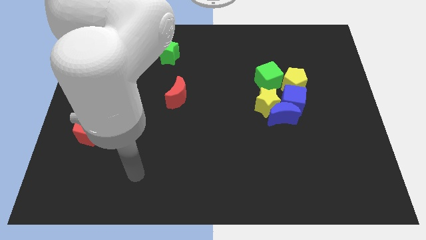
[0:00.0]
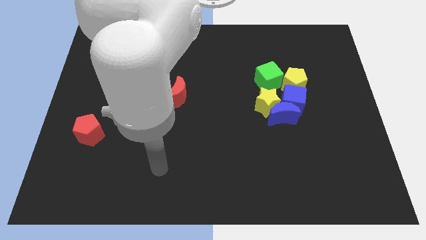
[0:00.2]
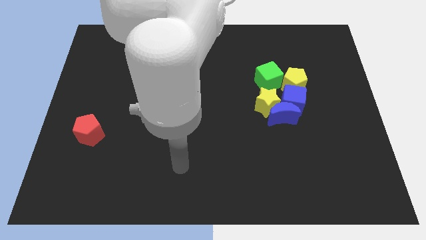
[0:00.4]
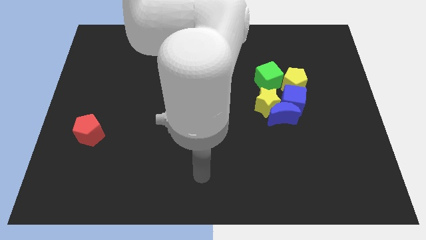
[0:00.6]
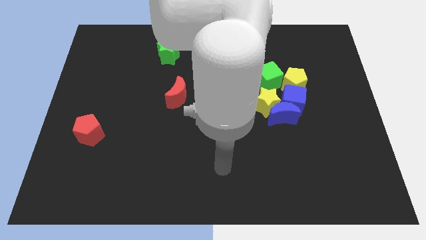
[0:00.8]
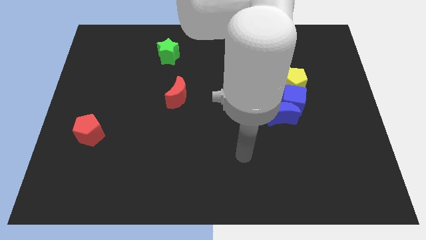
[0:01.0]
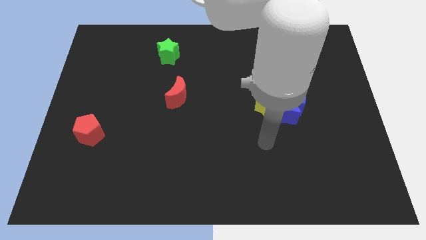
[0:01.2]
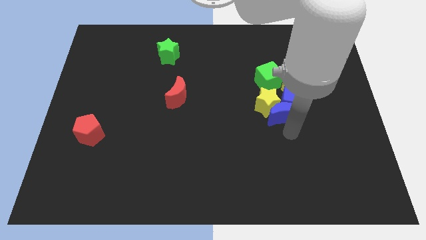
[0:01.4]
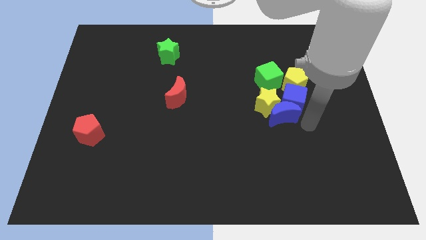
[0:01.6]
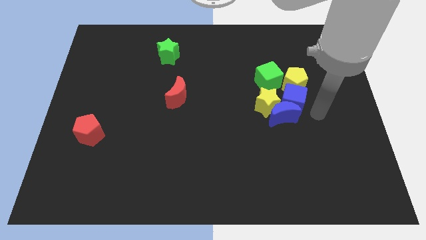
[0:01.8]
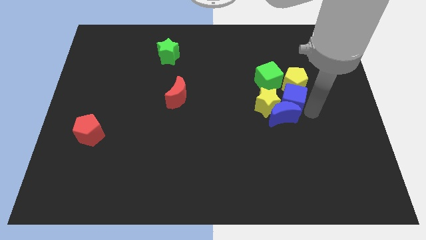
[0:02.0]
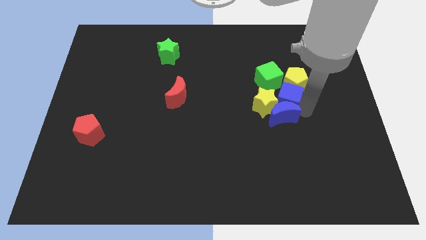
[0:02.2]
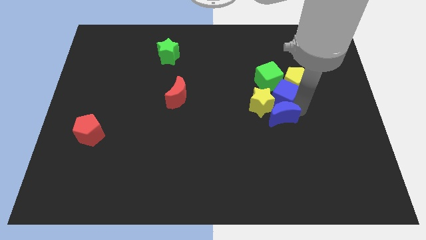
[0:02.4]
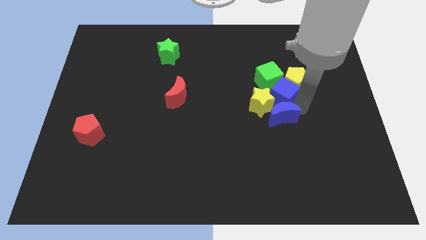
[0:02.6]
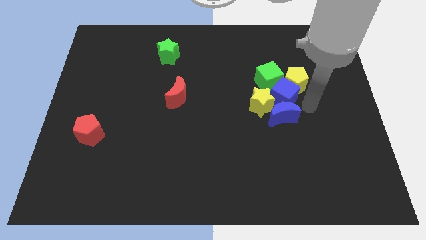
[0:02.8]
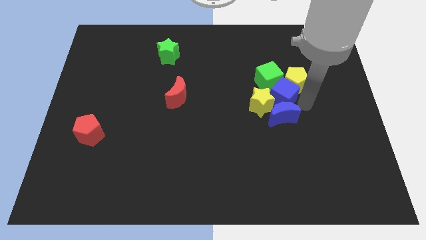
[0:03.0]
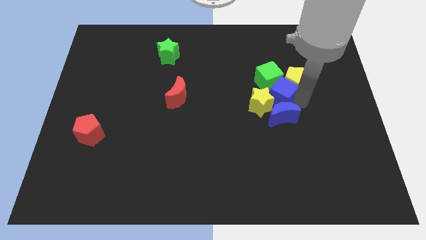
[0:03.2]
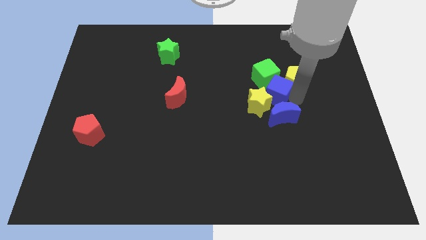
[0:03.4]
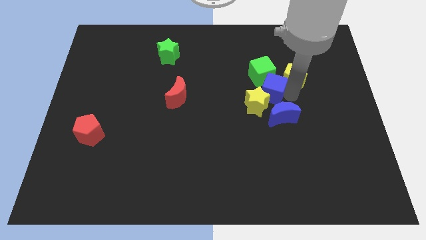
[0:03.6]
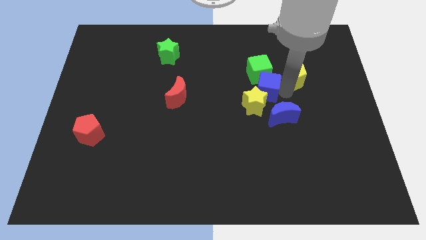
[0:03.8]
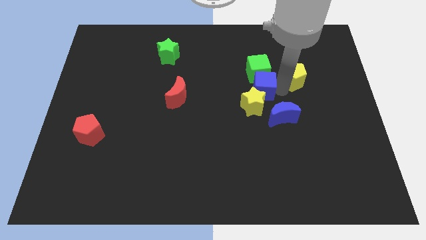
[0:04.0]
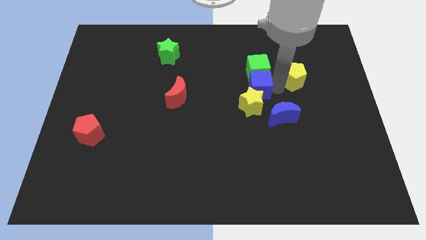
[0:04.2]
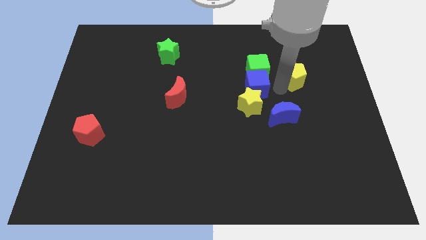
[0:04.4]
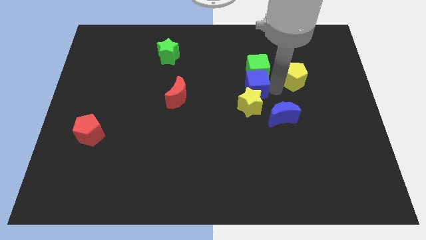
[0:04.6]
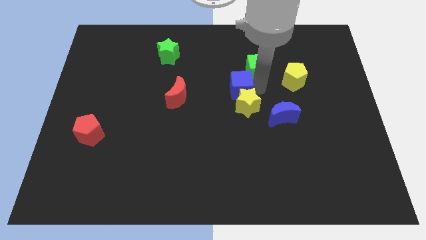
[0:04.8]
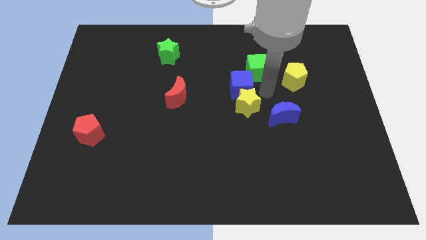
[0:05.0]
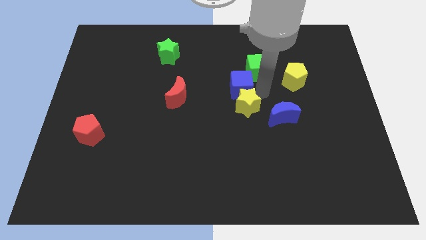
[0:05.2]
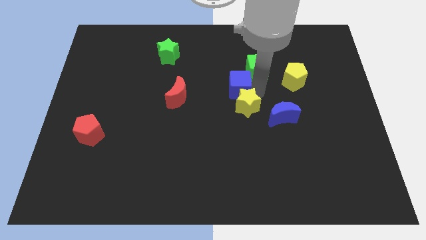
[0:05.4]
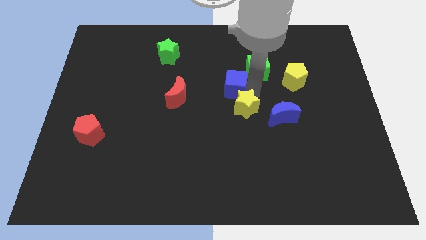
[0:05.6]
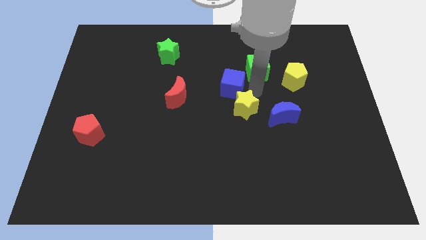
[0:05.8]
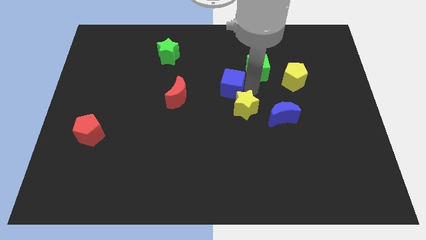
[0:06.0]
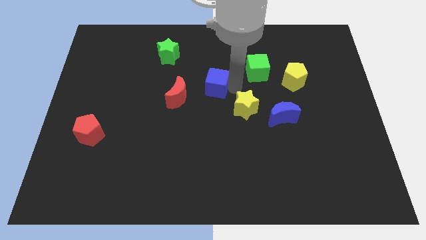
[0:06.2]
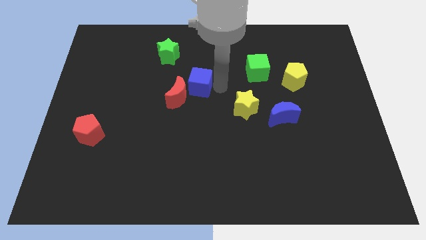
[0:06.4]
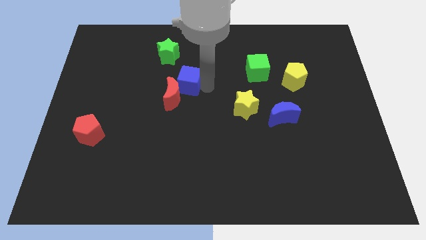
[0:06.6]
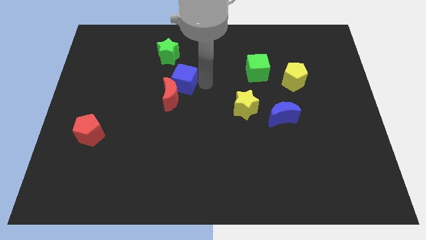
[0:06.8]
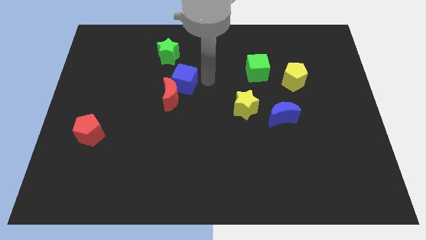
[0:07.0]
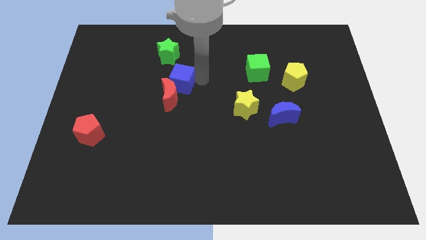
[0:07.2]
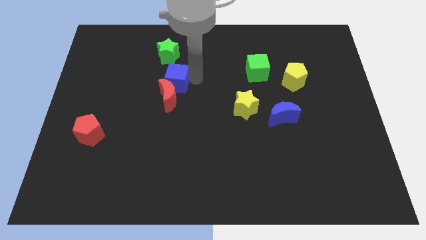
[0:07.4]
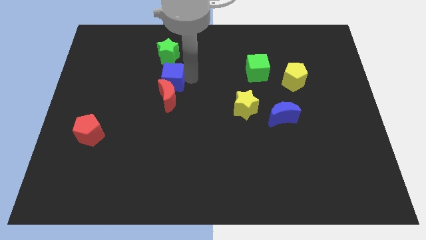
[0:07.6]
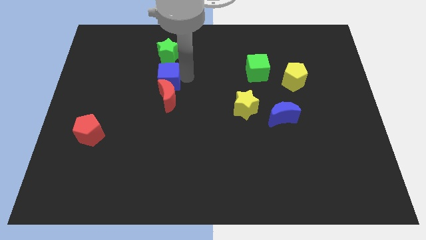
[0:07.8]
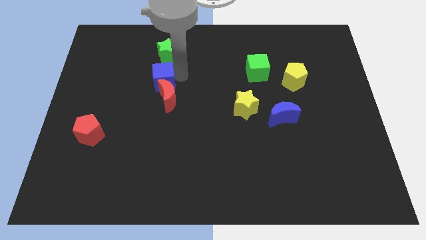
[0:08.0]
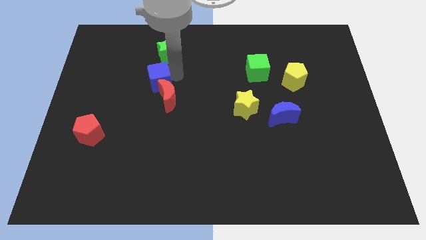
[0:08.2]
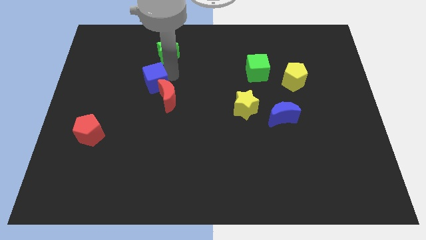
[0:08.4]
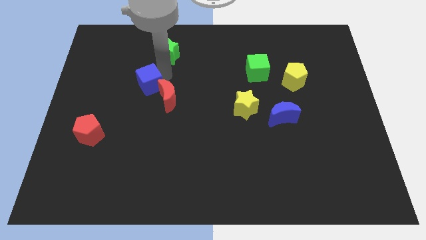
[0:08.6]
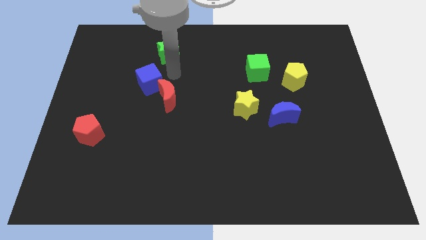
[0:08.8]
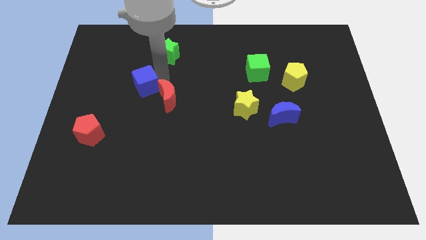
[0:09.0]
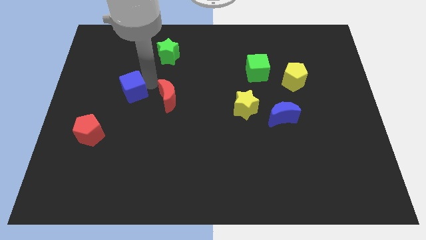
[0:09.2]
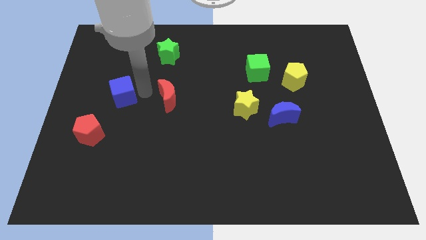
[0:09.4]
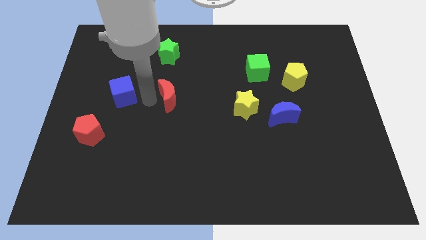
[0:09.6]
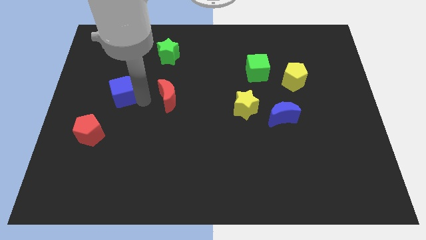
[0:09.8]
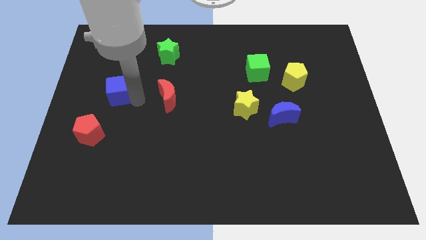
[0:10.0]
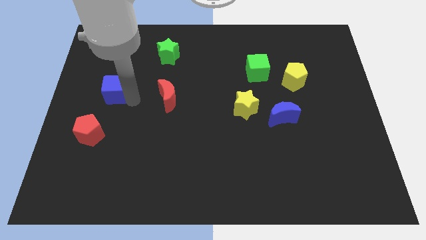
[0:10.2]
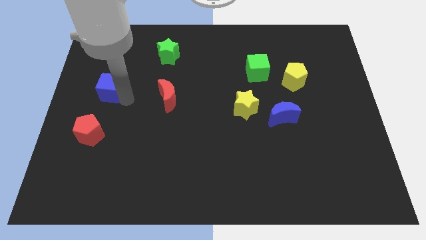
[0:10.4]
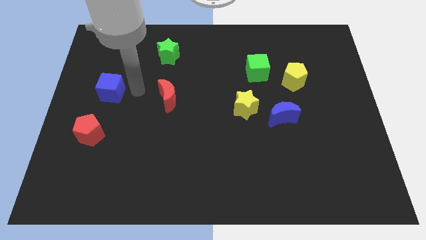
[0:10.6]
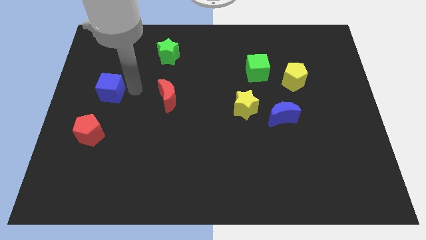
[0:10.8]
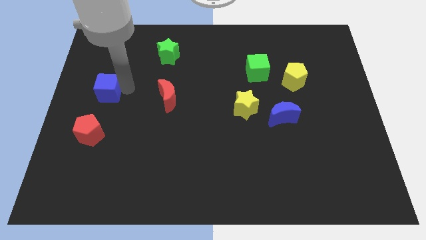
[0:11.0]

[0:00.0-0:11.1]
put the blue cube to the left side

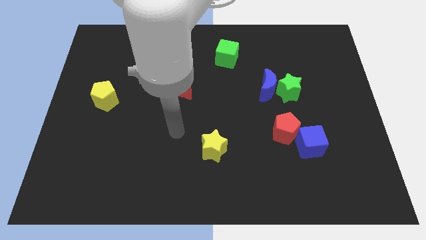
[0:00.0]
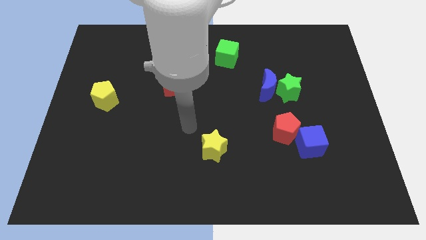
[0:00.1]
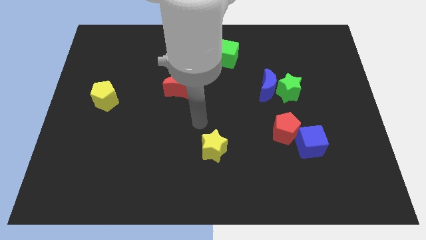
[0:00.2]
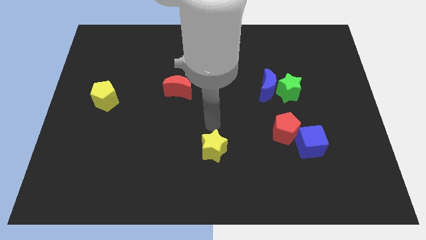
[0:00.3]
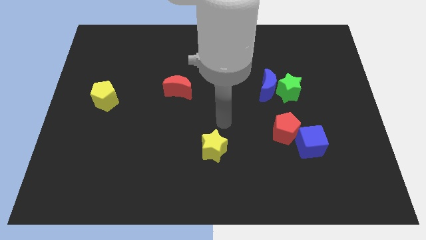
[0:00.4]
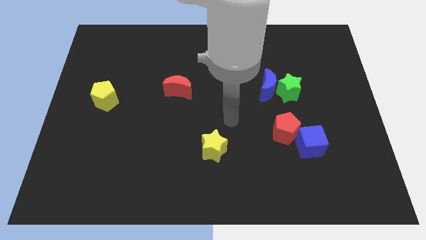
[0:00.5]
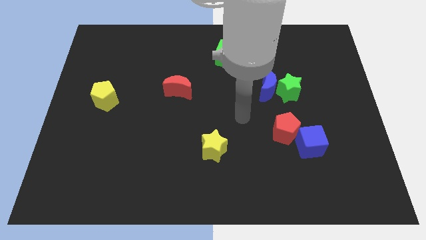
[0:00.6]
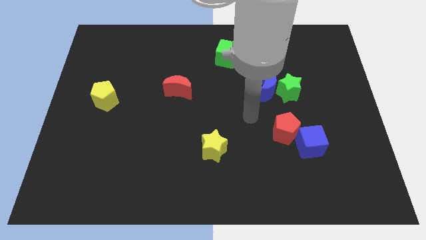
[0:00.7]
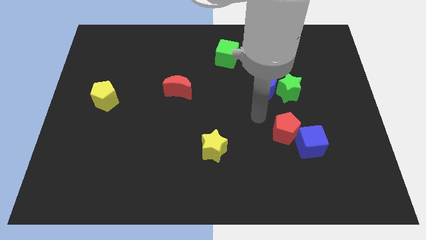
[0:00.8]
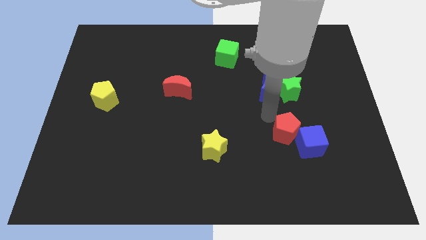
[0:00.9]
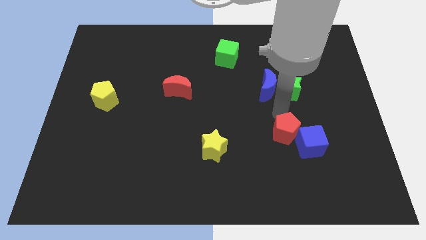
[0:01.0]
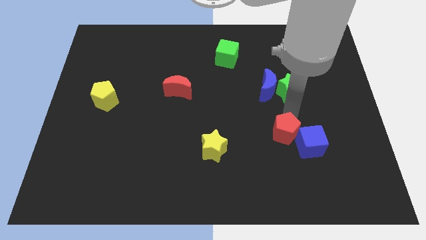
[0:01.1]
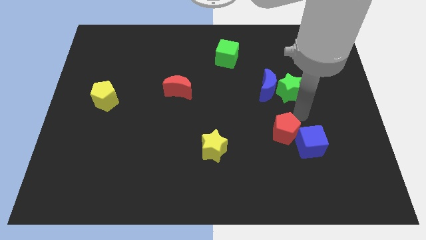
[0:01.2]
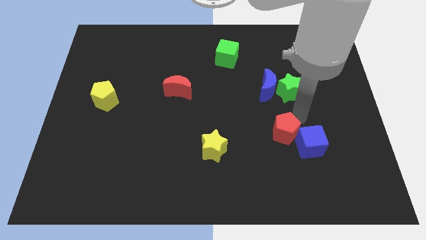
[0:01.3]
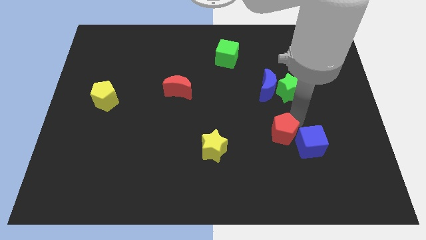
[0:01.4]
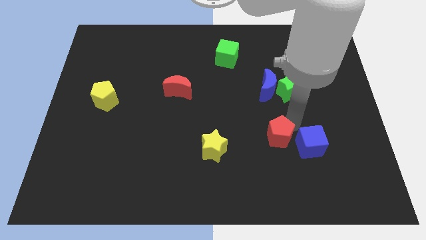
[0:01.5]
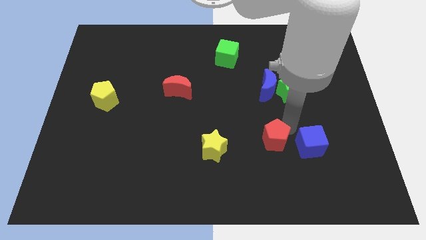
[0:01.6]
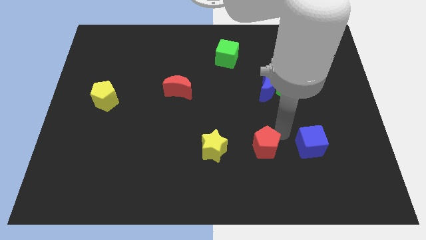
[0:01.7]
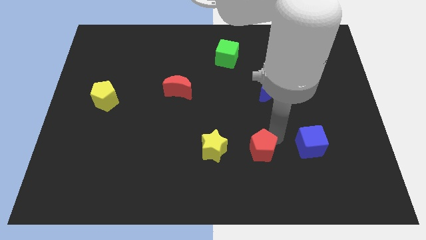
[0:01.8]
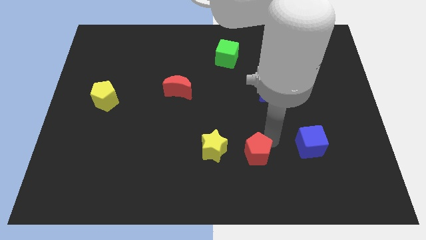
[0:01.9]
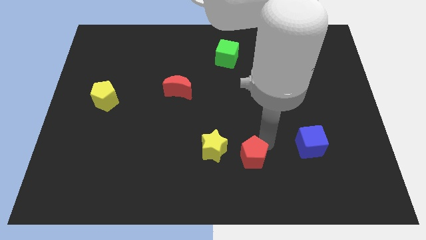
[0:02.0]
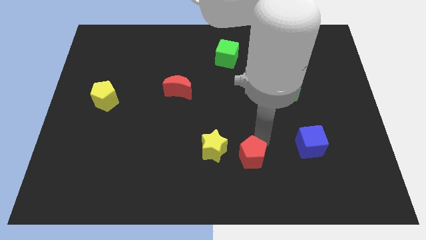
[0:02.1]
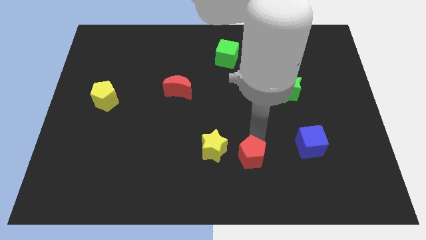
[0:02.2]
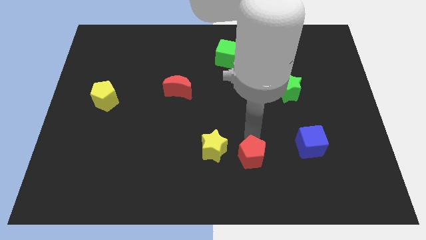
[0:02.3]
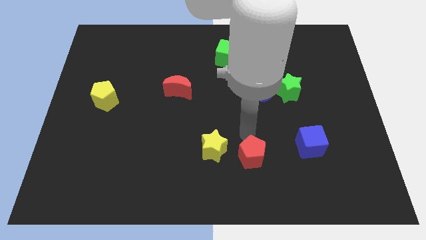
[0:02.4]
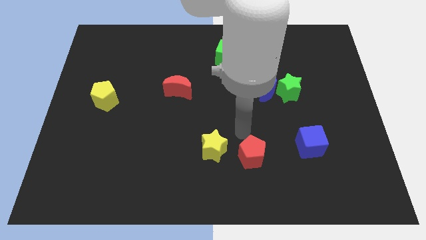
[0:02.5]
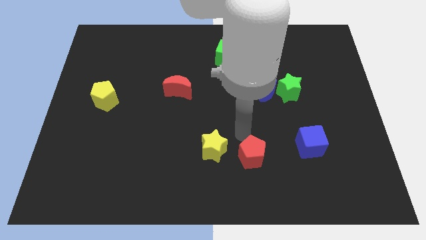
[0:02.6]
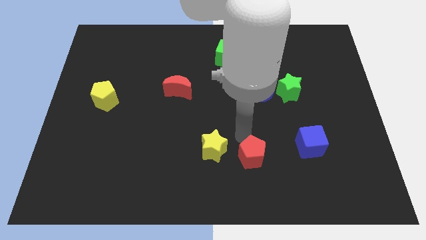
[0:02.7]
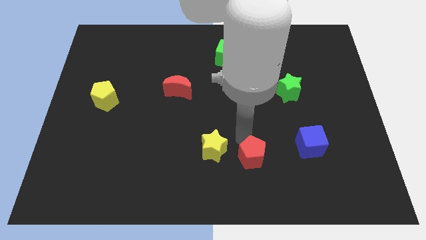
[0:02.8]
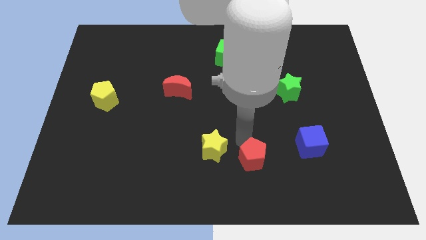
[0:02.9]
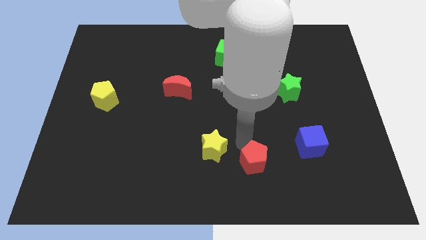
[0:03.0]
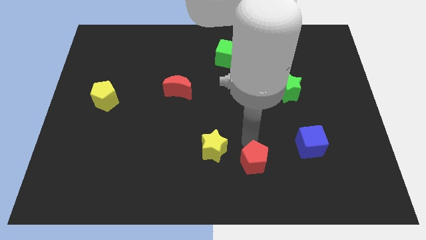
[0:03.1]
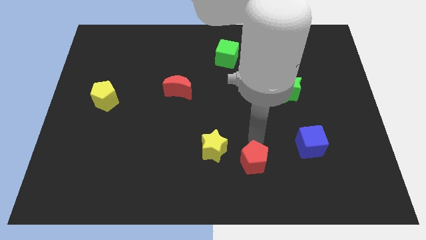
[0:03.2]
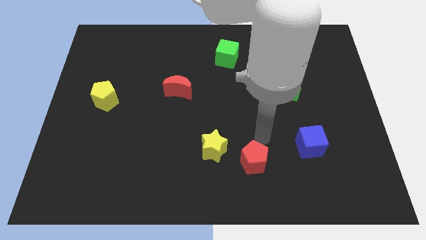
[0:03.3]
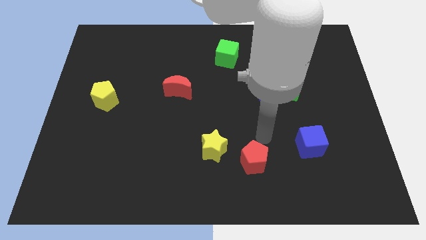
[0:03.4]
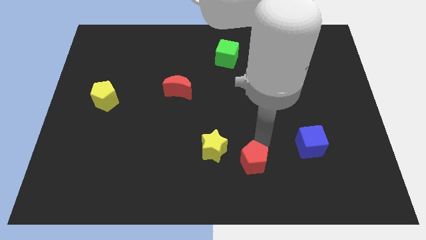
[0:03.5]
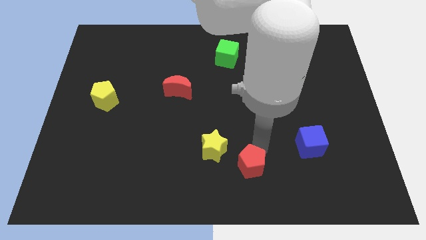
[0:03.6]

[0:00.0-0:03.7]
move the red pentagon to the bottom side
